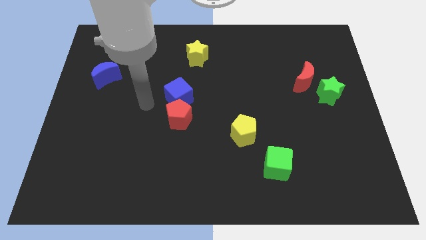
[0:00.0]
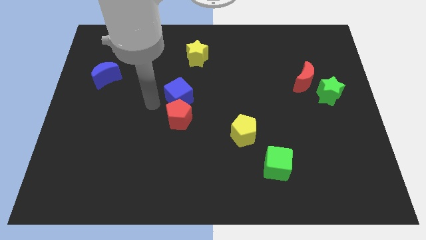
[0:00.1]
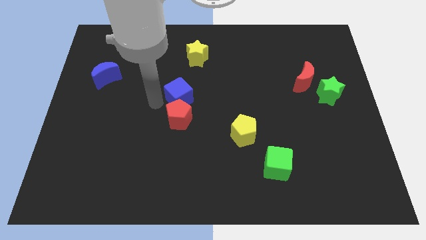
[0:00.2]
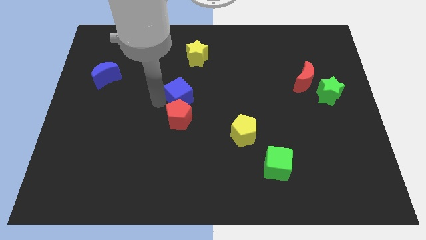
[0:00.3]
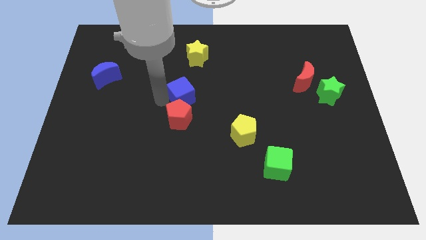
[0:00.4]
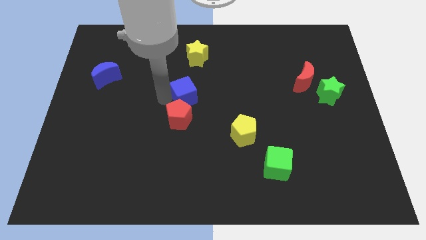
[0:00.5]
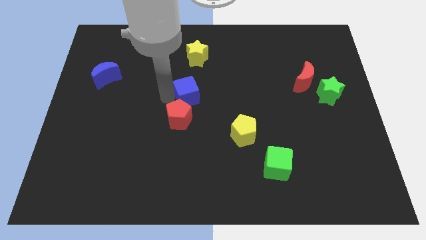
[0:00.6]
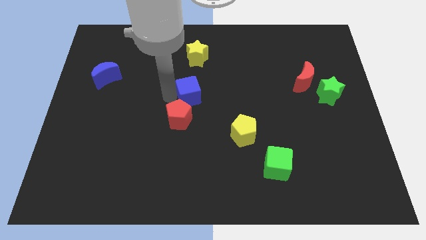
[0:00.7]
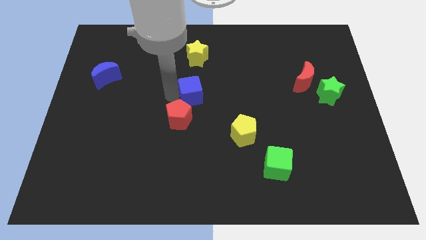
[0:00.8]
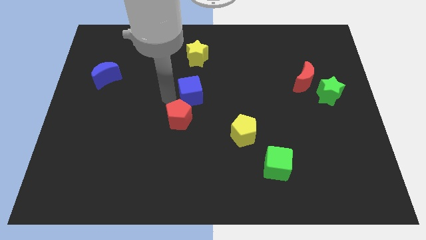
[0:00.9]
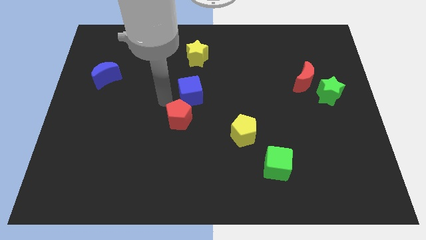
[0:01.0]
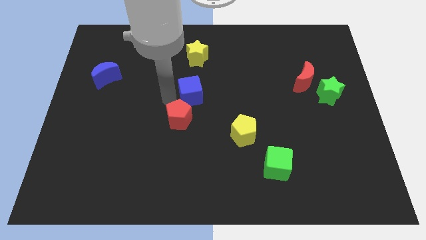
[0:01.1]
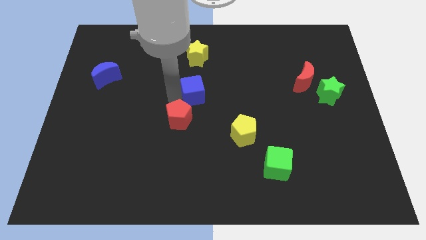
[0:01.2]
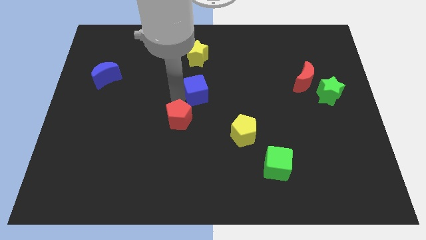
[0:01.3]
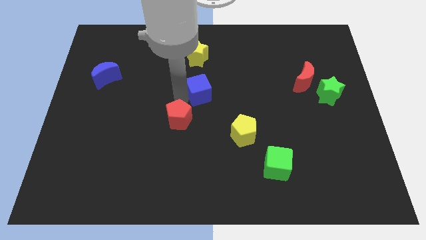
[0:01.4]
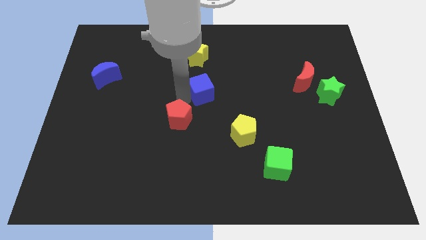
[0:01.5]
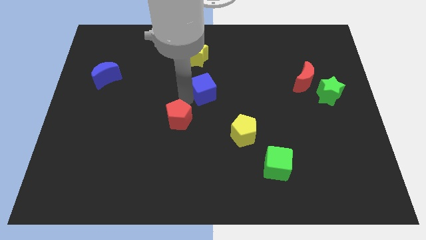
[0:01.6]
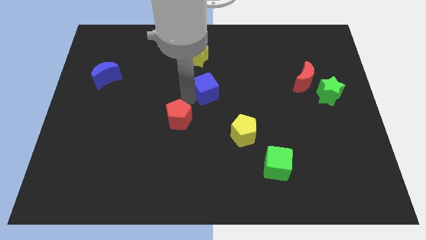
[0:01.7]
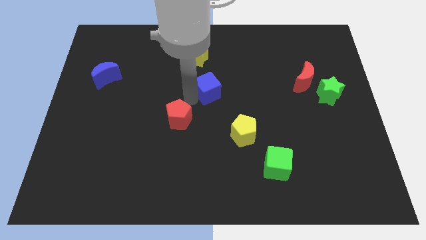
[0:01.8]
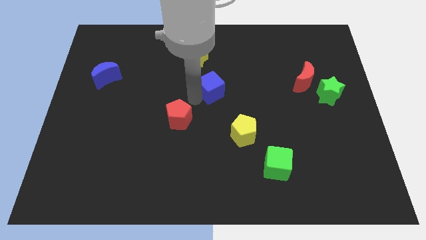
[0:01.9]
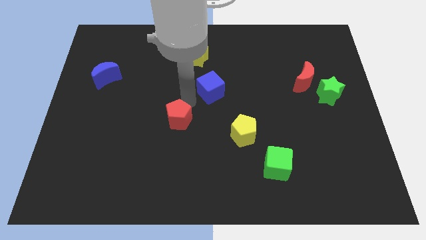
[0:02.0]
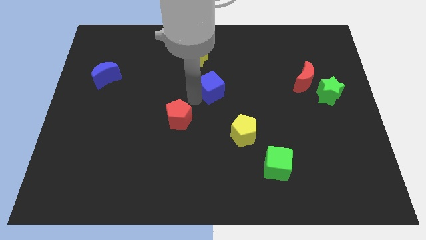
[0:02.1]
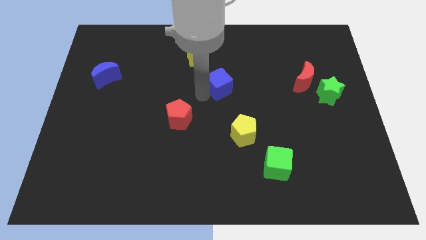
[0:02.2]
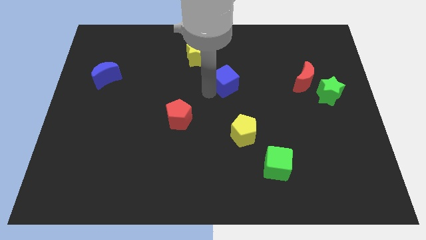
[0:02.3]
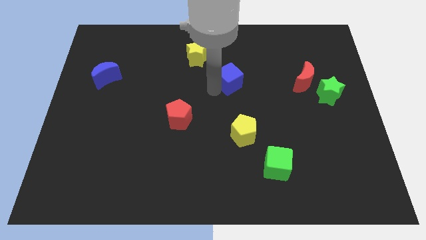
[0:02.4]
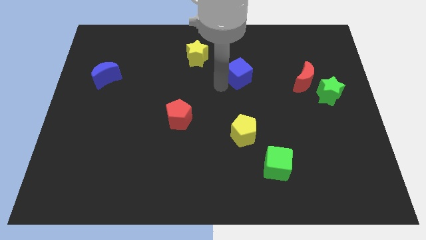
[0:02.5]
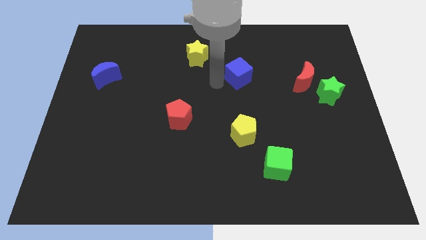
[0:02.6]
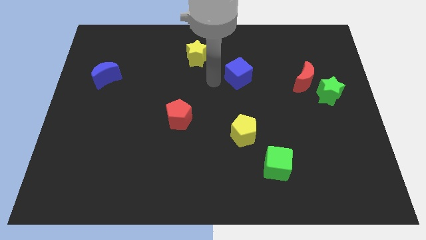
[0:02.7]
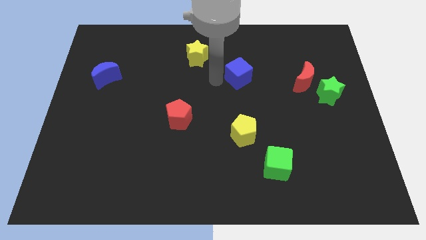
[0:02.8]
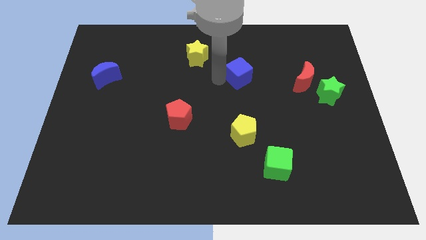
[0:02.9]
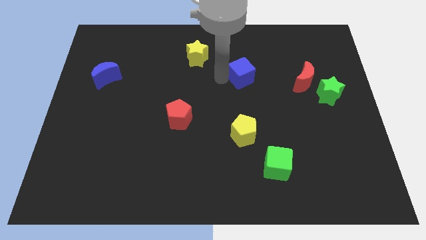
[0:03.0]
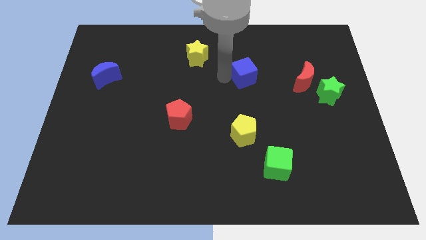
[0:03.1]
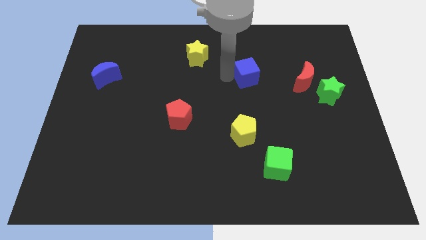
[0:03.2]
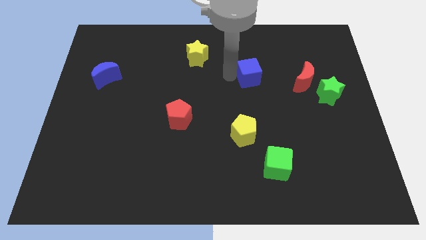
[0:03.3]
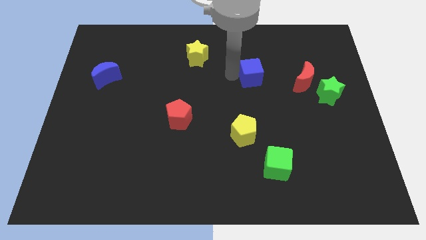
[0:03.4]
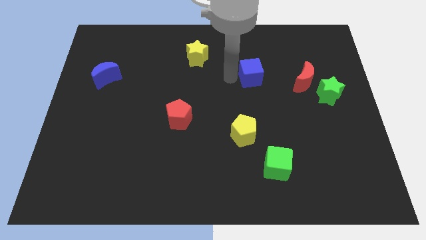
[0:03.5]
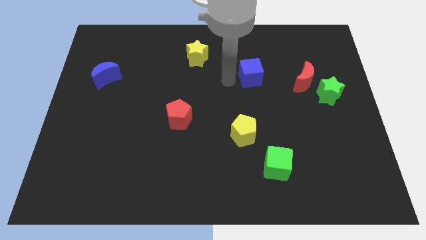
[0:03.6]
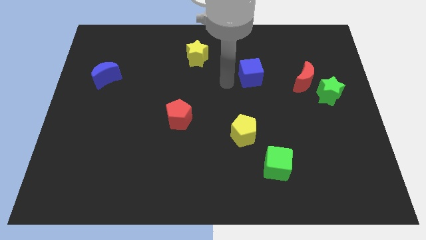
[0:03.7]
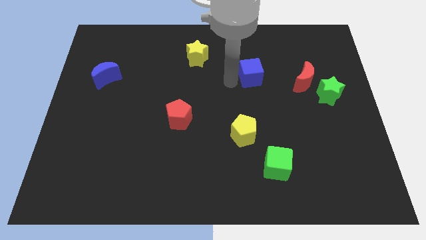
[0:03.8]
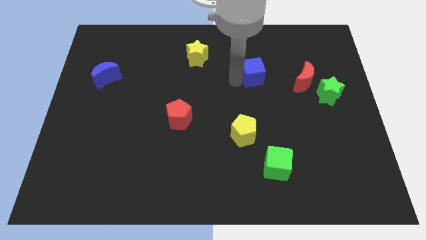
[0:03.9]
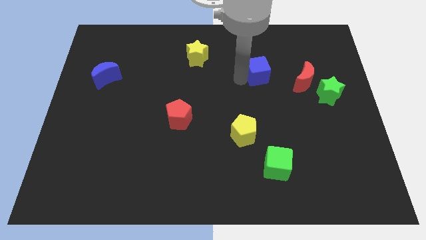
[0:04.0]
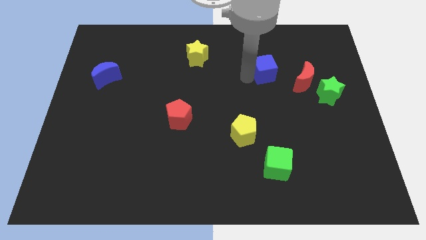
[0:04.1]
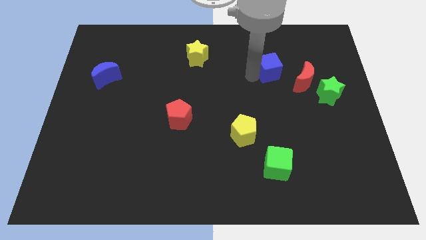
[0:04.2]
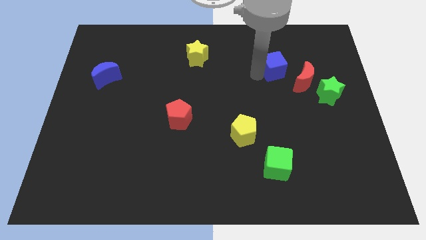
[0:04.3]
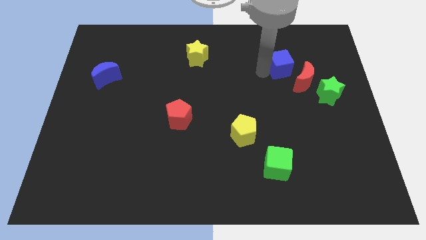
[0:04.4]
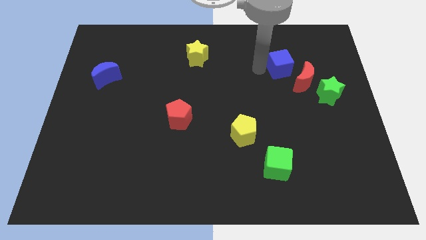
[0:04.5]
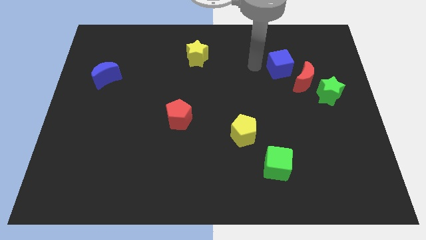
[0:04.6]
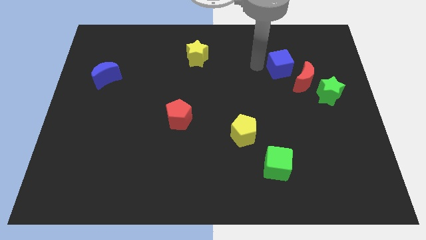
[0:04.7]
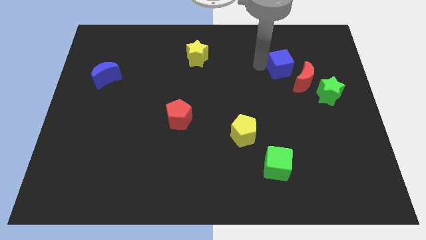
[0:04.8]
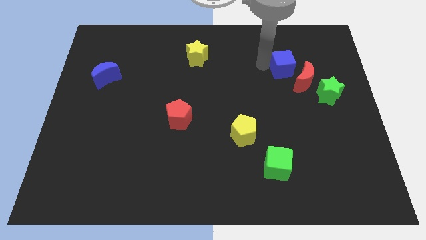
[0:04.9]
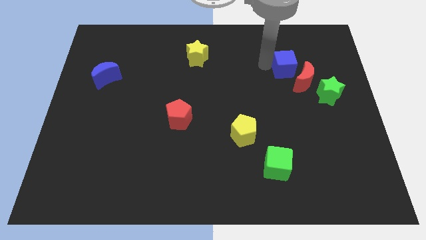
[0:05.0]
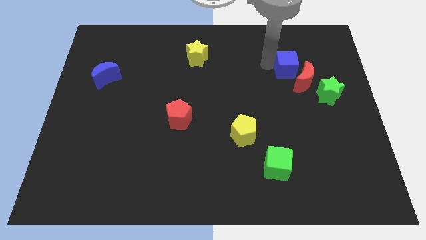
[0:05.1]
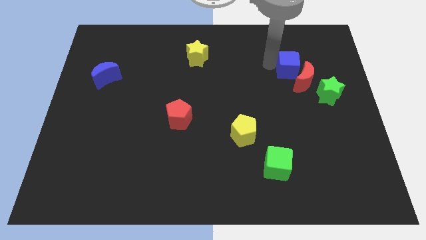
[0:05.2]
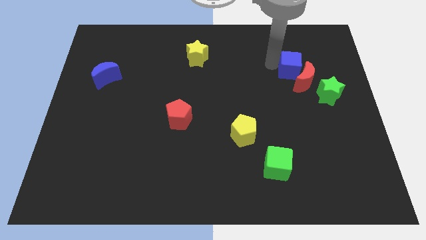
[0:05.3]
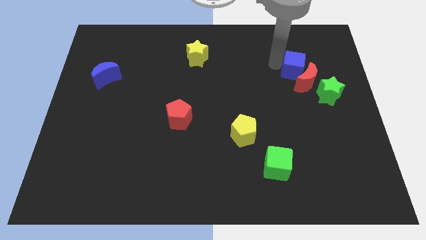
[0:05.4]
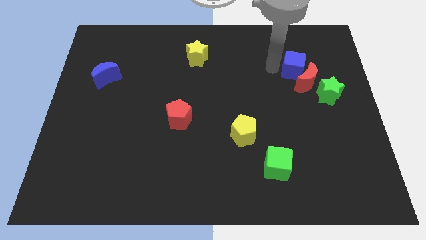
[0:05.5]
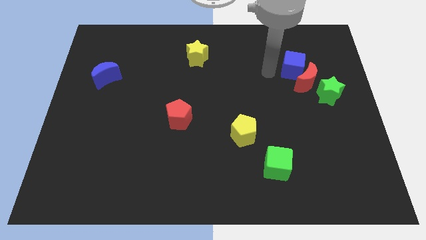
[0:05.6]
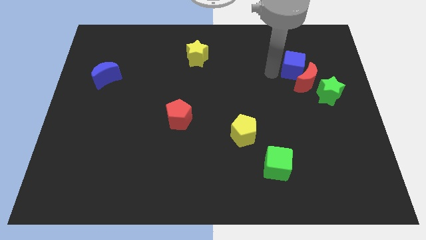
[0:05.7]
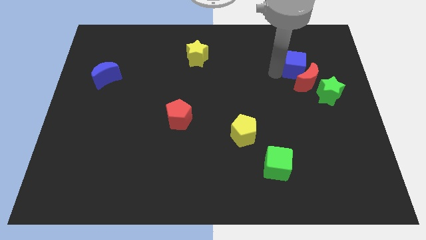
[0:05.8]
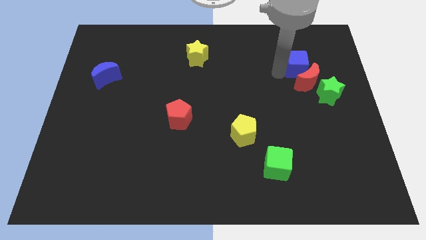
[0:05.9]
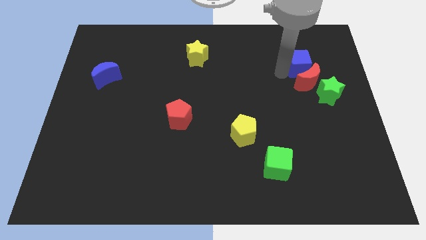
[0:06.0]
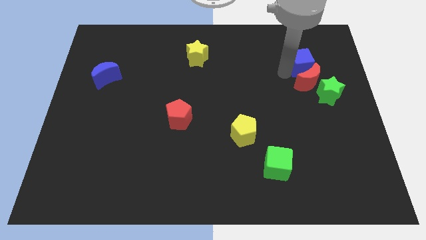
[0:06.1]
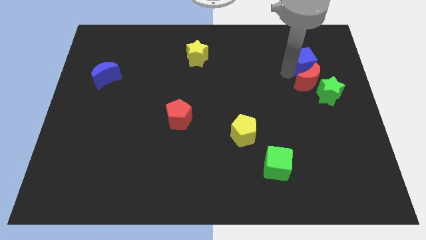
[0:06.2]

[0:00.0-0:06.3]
slide the blue cube to the top of the green star
